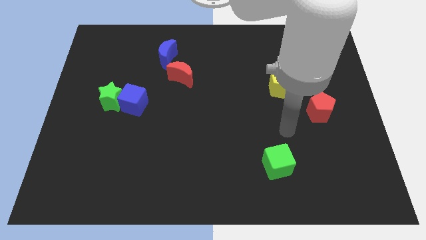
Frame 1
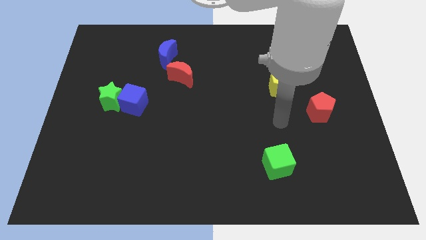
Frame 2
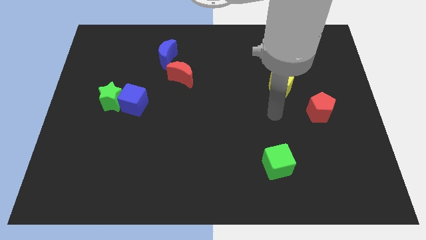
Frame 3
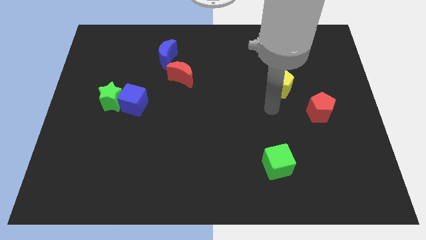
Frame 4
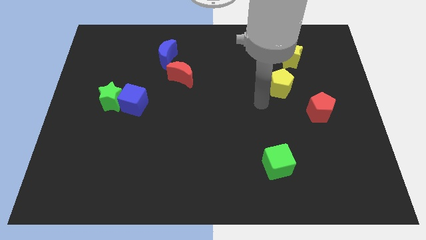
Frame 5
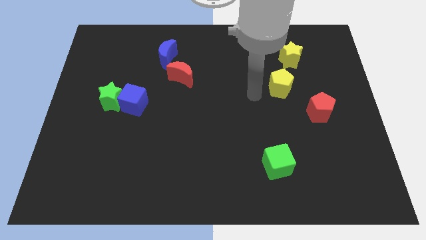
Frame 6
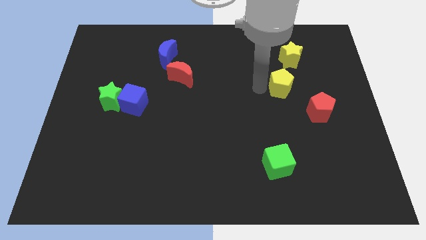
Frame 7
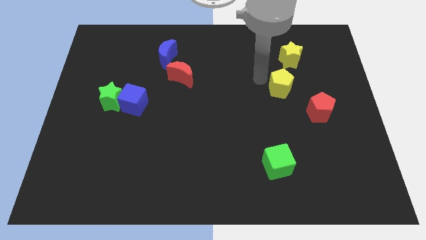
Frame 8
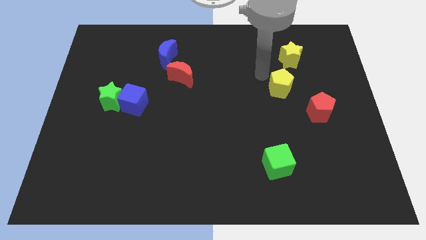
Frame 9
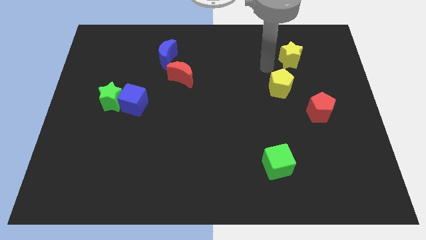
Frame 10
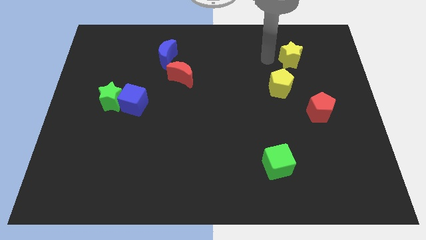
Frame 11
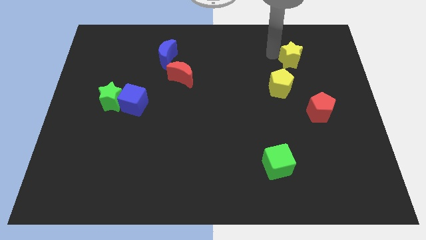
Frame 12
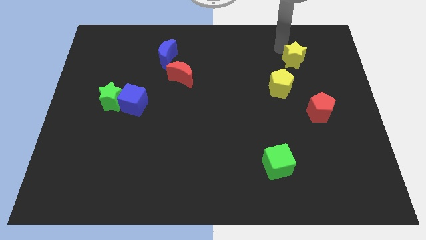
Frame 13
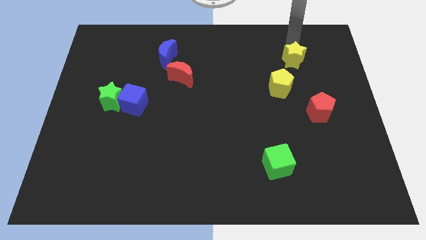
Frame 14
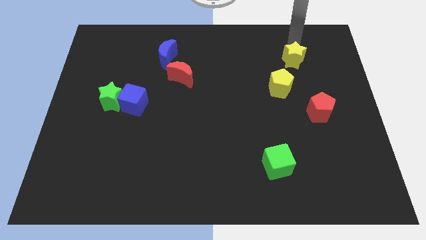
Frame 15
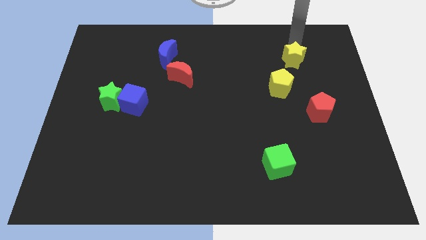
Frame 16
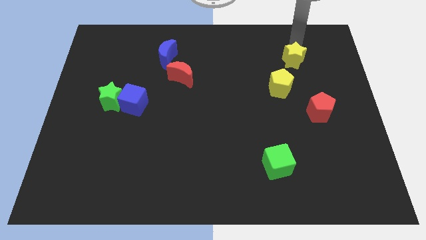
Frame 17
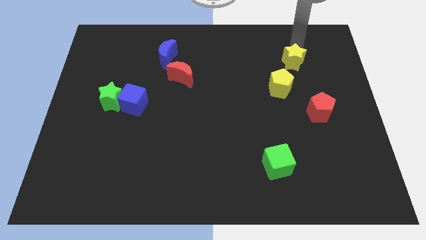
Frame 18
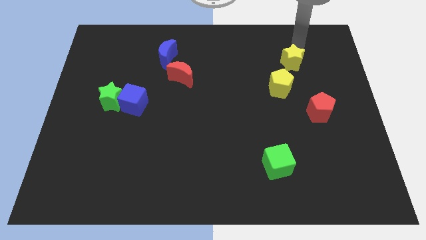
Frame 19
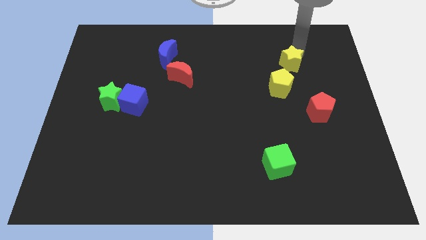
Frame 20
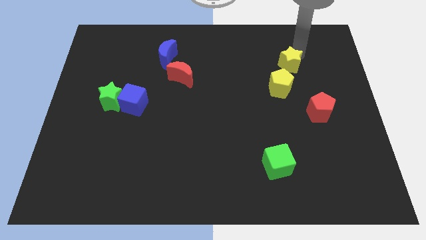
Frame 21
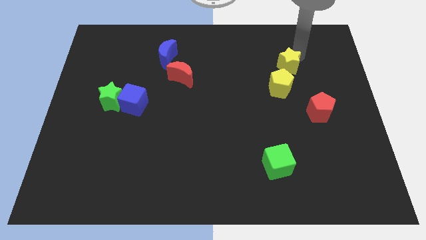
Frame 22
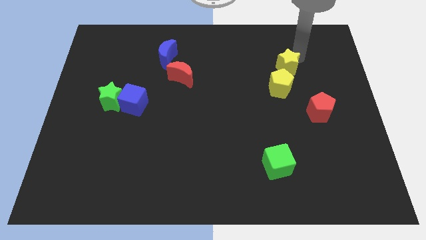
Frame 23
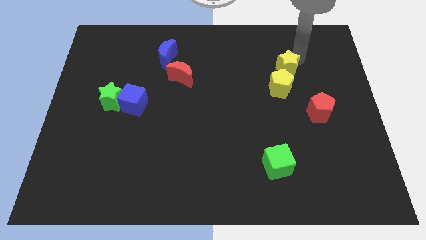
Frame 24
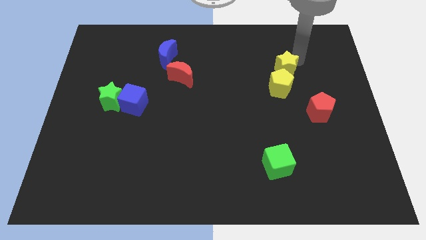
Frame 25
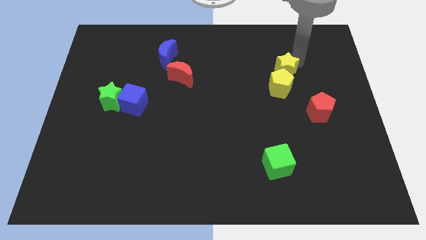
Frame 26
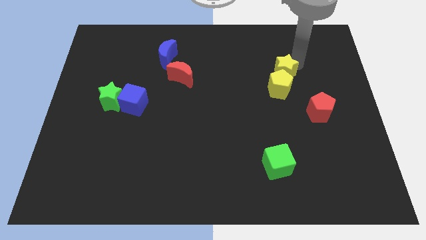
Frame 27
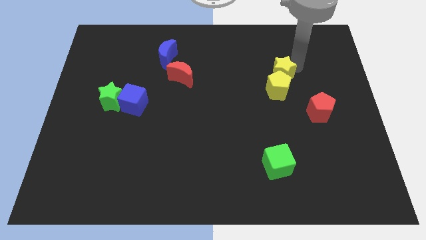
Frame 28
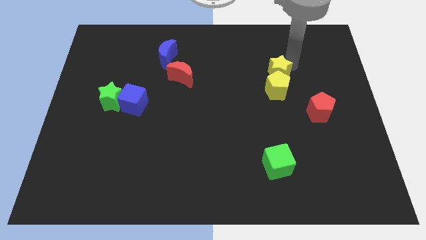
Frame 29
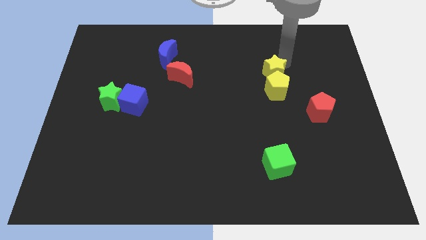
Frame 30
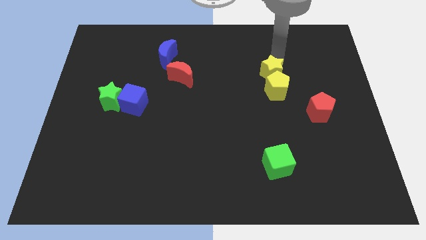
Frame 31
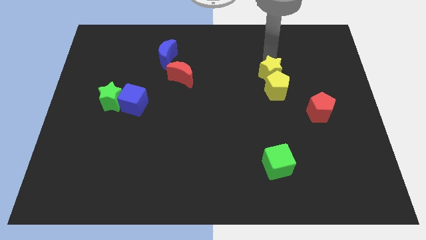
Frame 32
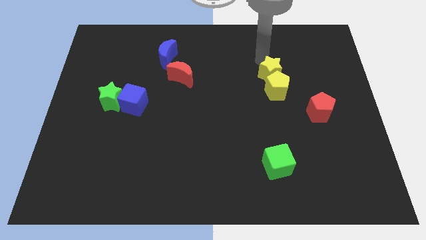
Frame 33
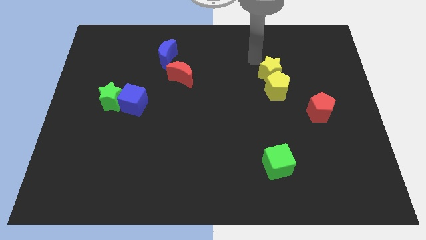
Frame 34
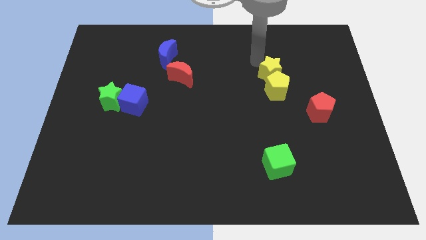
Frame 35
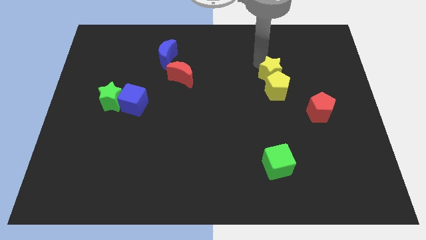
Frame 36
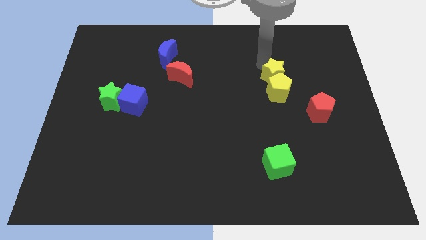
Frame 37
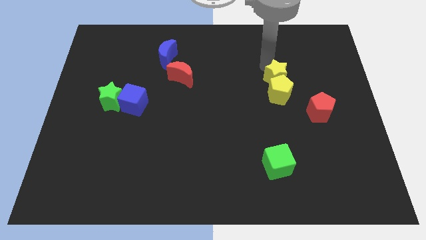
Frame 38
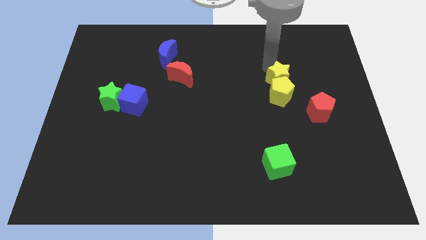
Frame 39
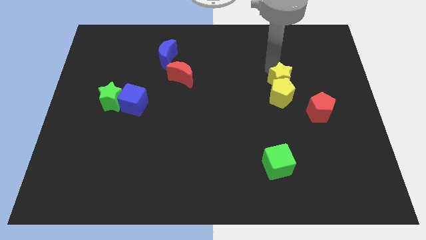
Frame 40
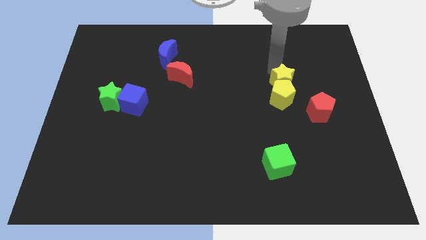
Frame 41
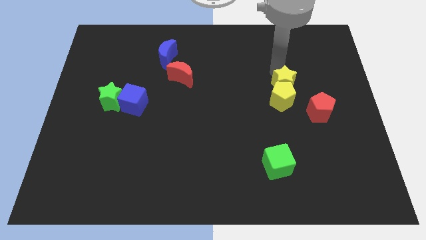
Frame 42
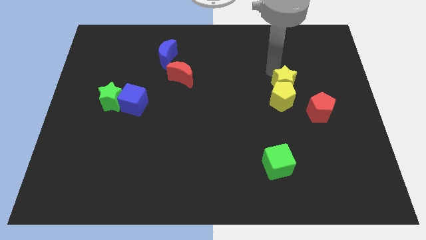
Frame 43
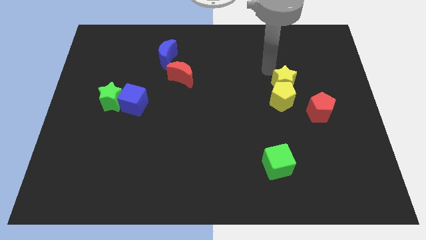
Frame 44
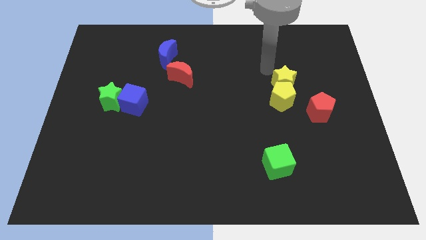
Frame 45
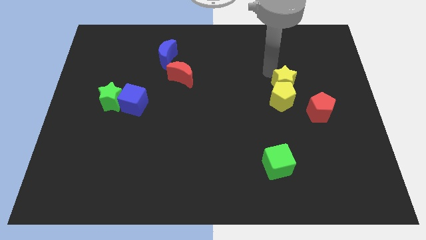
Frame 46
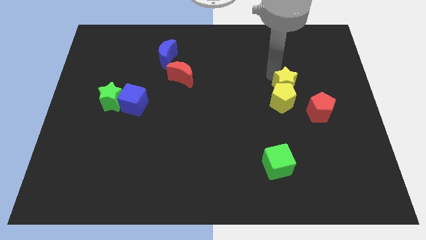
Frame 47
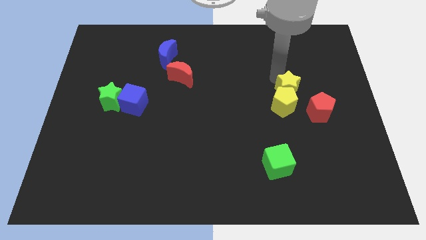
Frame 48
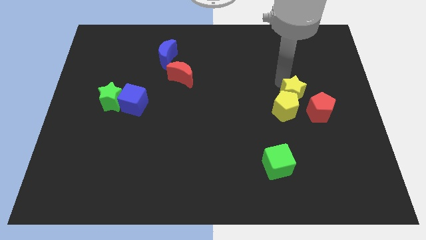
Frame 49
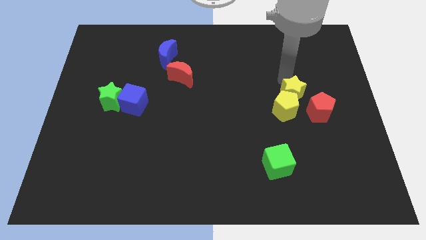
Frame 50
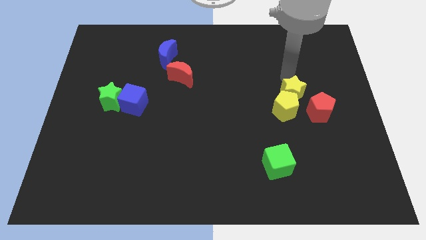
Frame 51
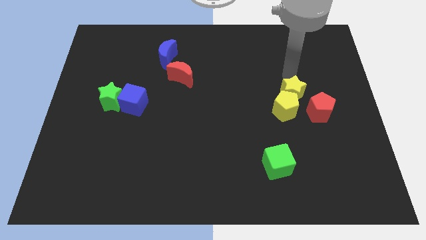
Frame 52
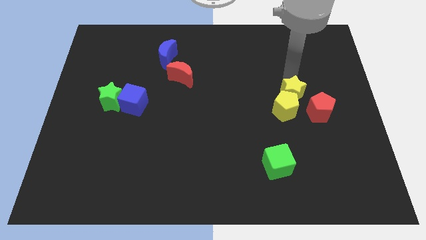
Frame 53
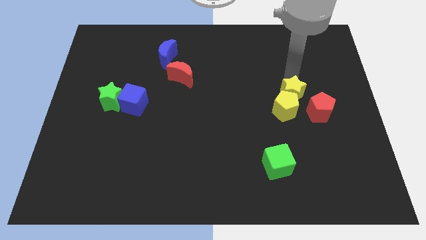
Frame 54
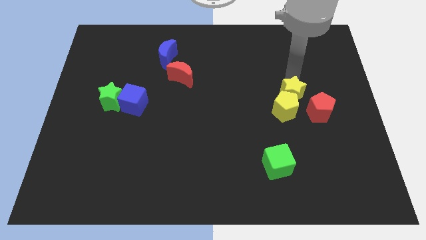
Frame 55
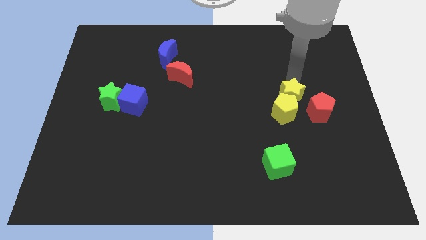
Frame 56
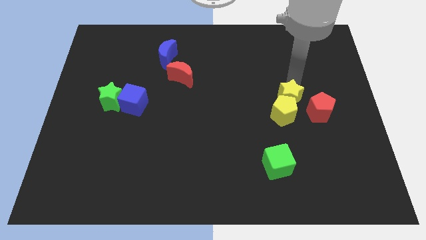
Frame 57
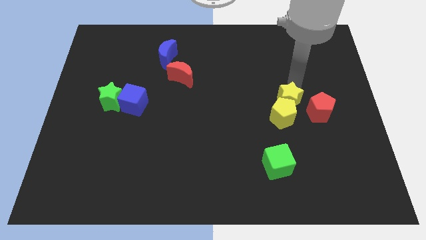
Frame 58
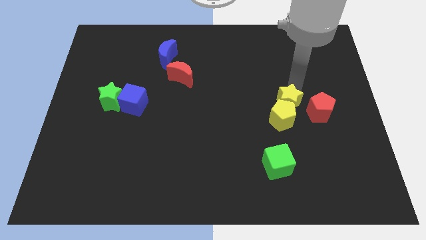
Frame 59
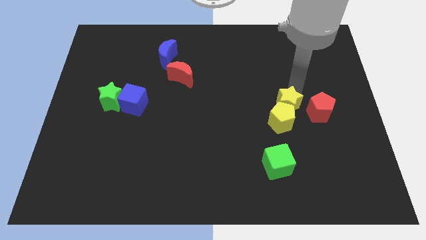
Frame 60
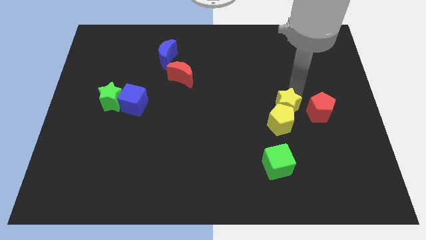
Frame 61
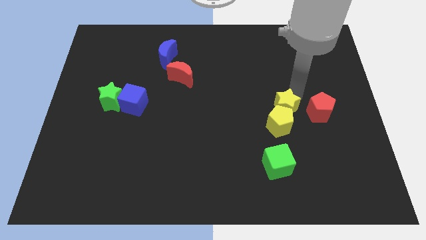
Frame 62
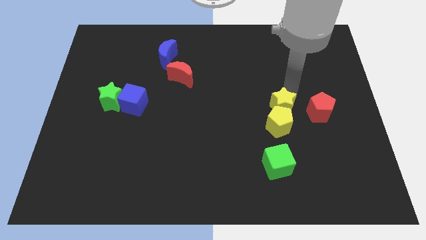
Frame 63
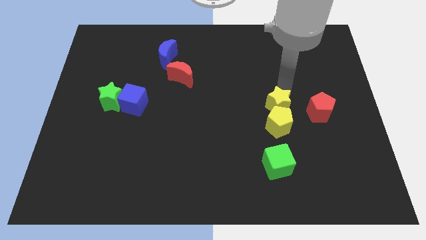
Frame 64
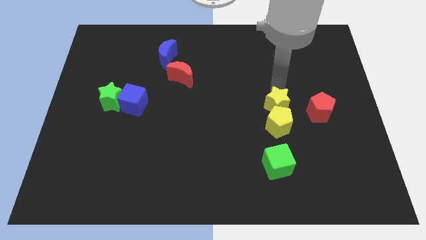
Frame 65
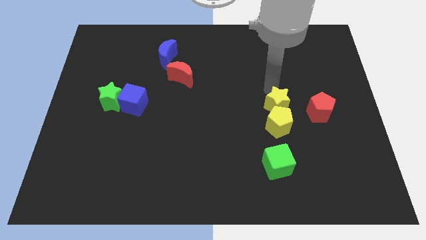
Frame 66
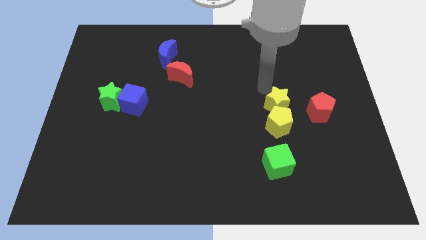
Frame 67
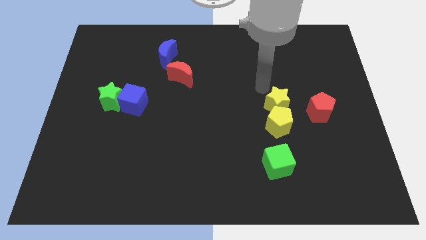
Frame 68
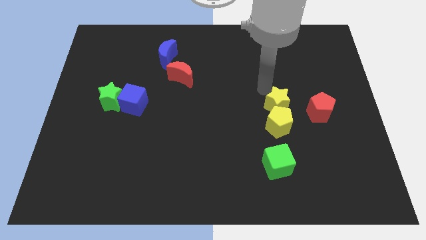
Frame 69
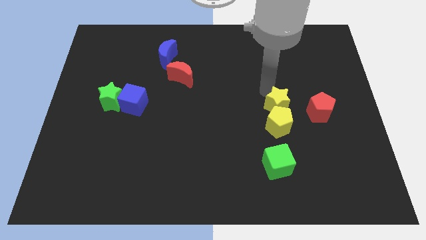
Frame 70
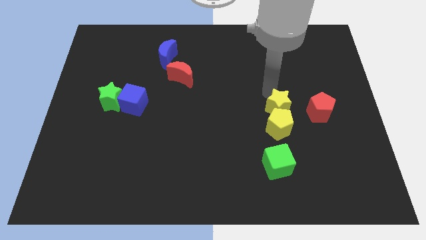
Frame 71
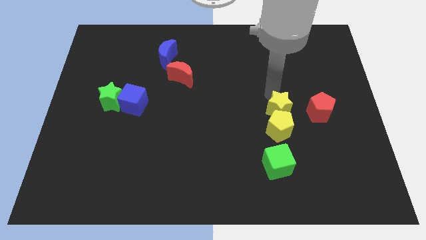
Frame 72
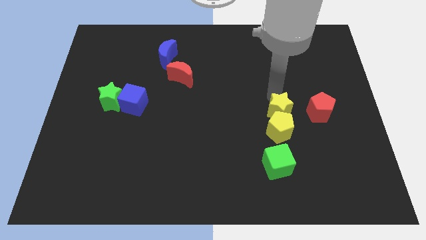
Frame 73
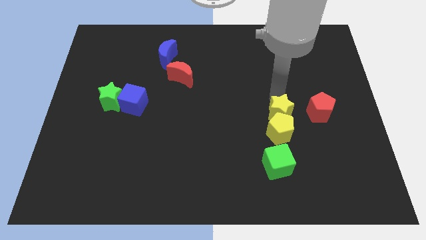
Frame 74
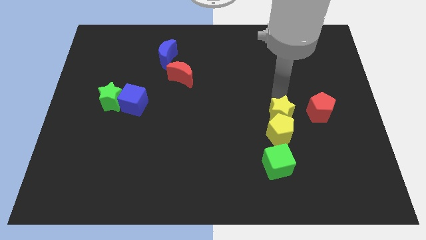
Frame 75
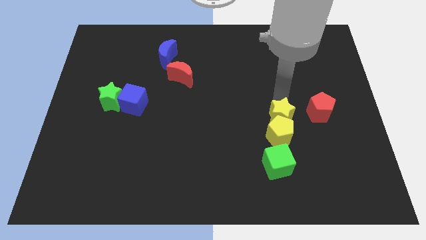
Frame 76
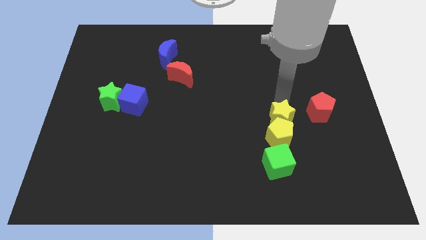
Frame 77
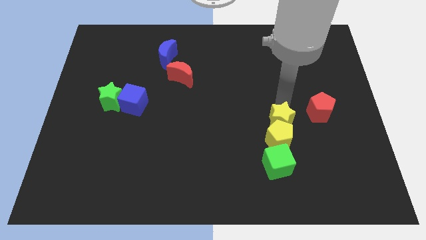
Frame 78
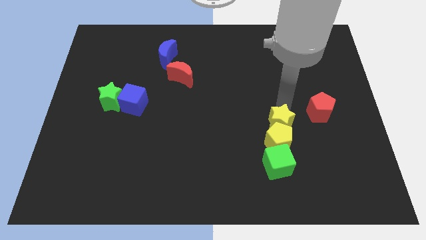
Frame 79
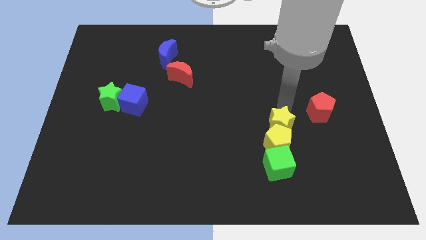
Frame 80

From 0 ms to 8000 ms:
slide the yellow star down

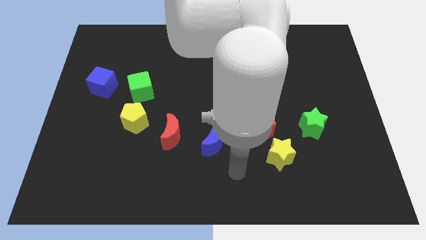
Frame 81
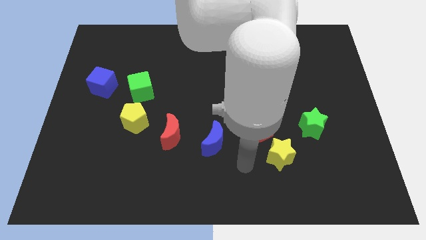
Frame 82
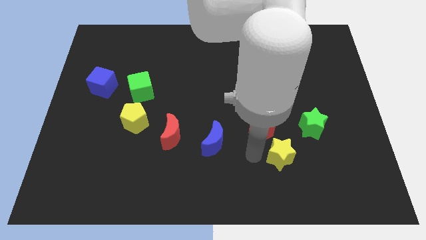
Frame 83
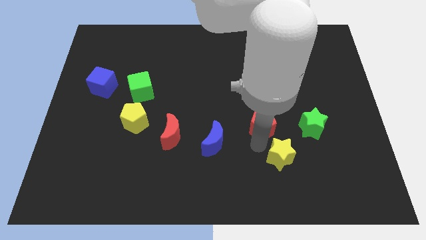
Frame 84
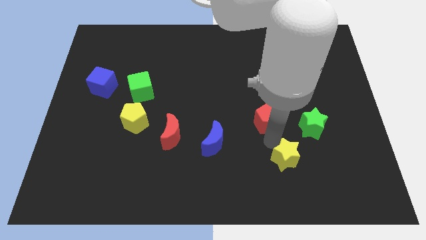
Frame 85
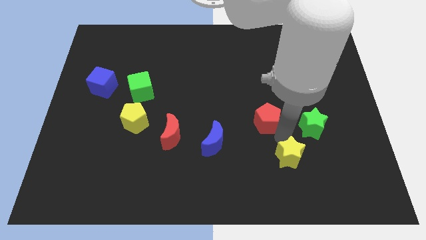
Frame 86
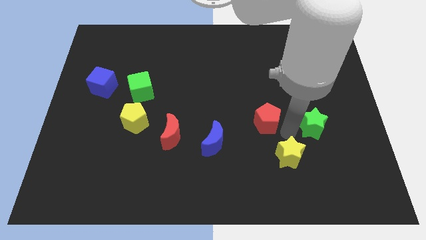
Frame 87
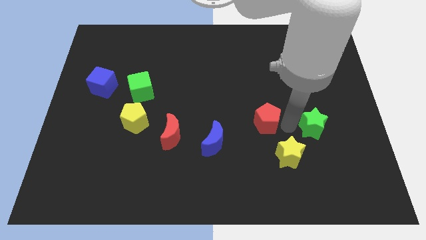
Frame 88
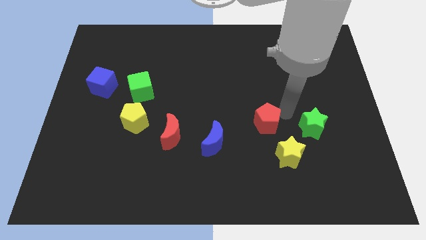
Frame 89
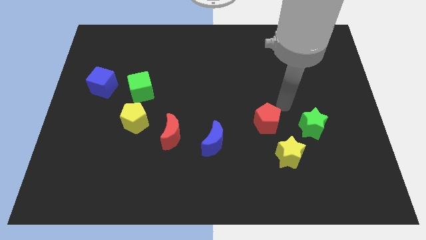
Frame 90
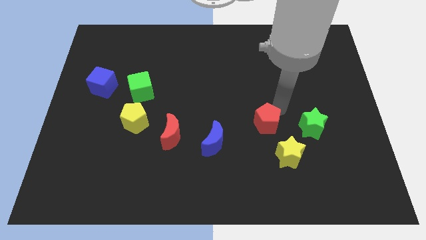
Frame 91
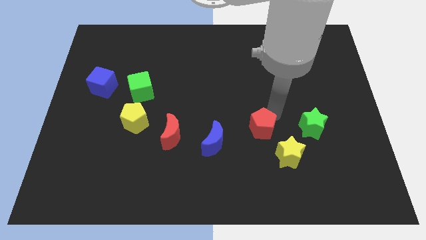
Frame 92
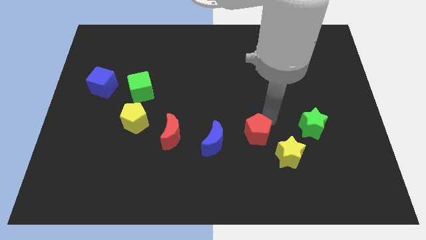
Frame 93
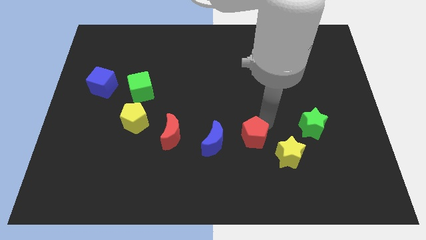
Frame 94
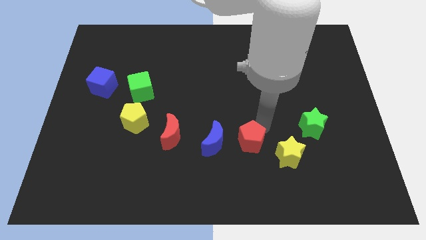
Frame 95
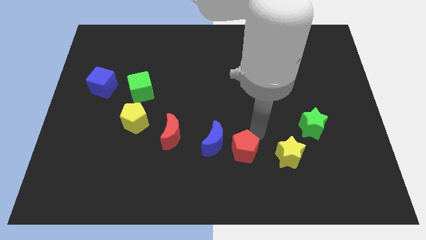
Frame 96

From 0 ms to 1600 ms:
slightly slide the red pentagon diagonally down and left
